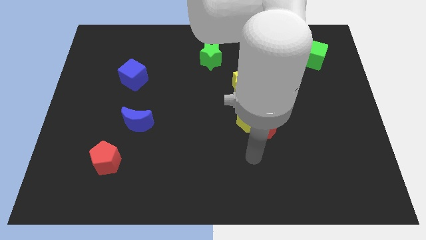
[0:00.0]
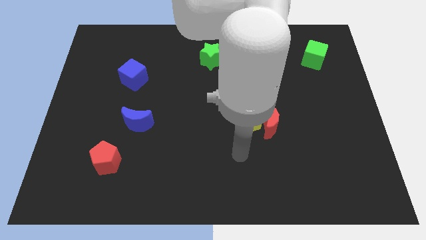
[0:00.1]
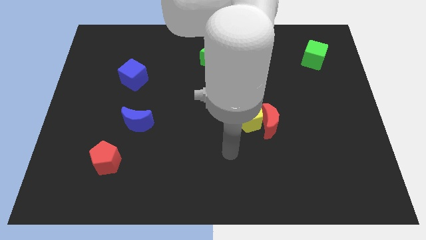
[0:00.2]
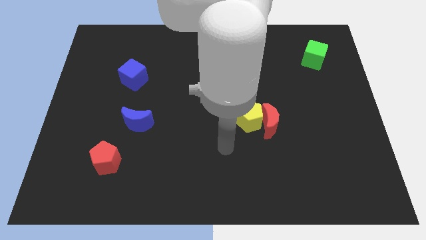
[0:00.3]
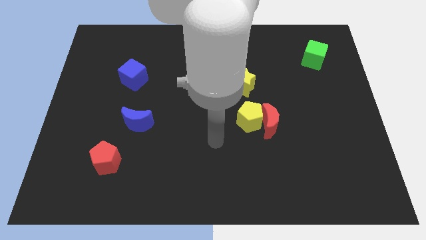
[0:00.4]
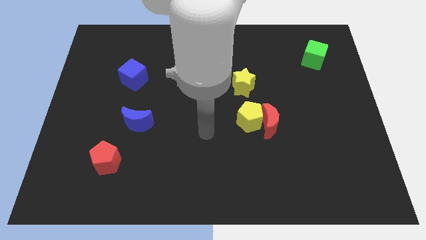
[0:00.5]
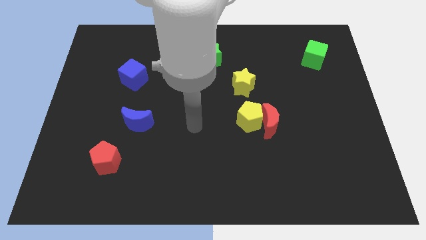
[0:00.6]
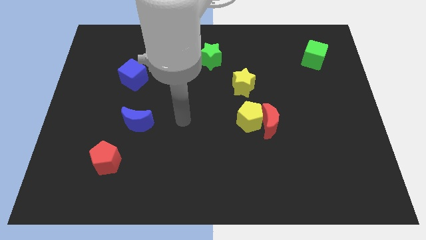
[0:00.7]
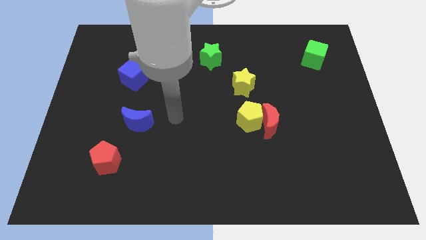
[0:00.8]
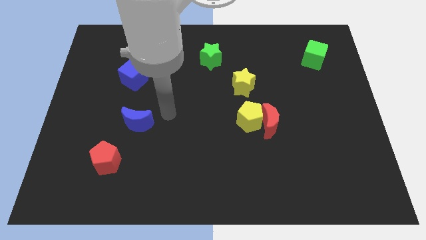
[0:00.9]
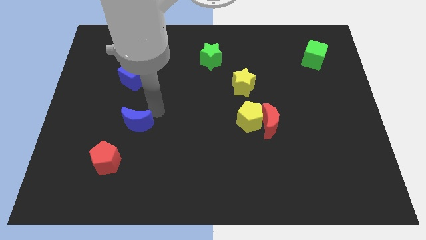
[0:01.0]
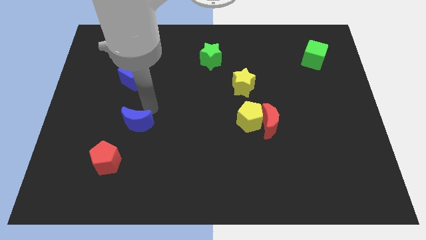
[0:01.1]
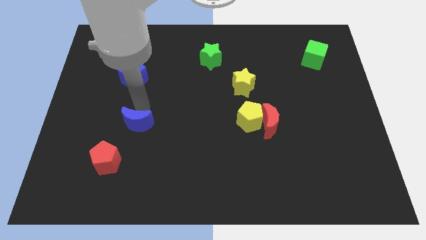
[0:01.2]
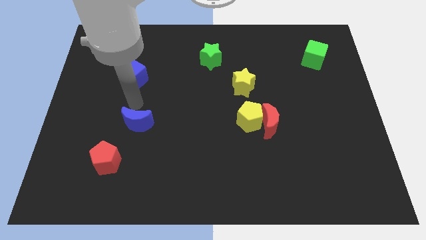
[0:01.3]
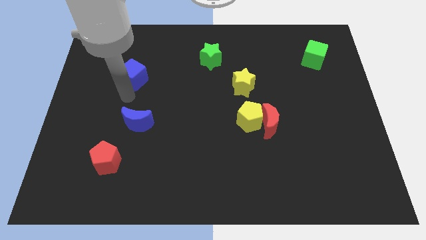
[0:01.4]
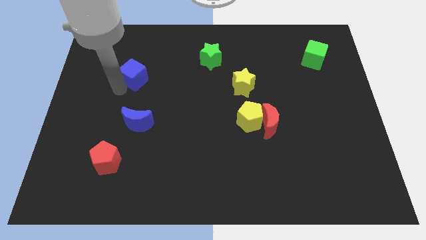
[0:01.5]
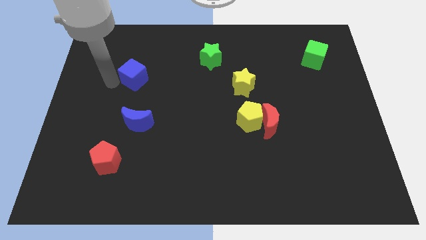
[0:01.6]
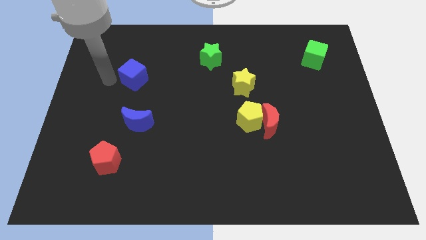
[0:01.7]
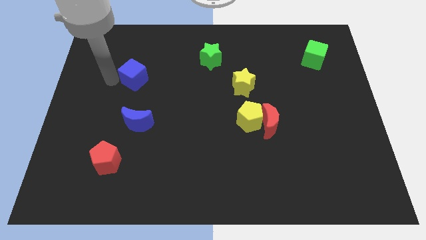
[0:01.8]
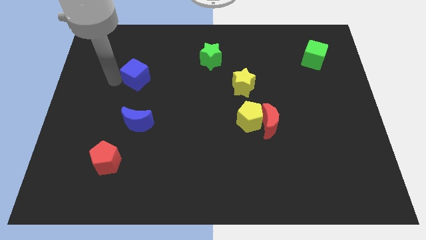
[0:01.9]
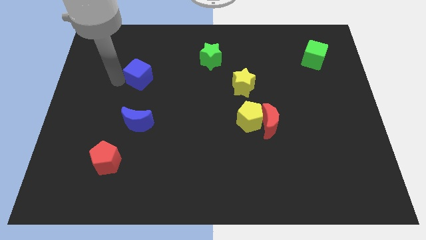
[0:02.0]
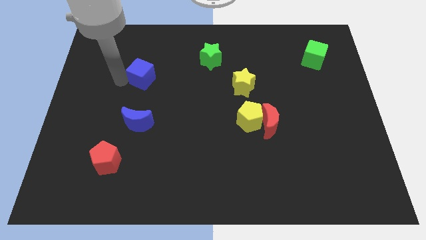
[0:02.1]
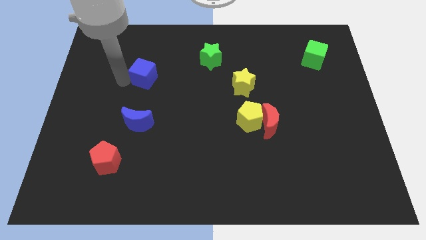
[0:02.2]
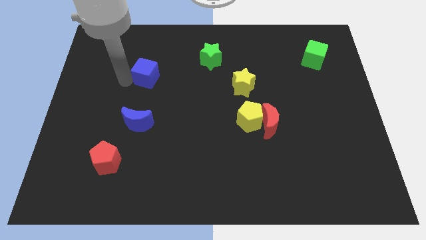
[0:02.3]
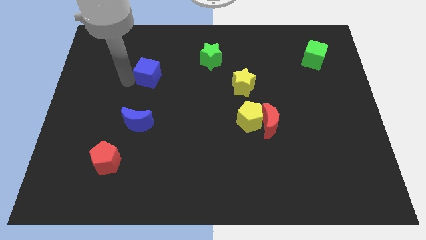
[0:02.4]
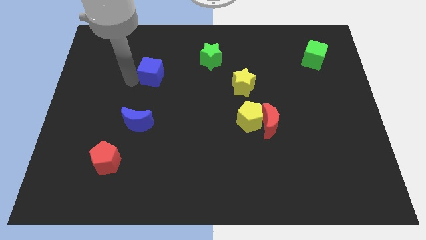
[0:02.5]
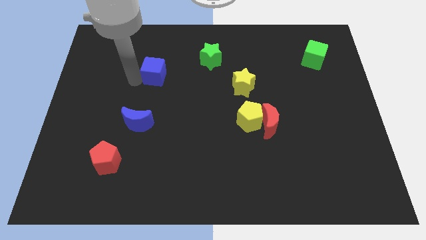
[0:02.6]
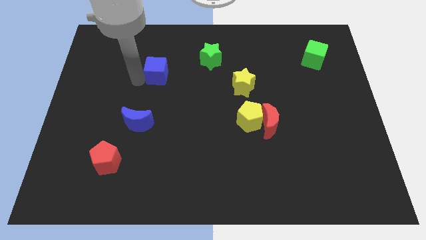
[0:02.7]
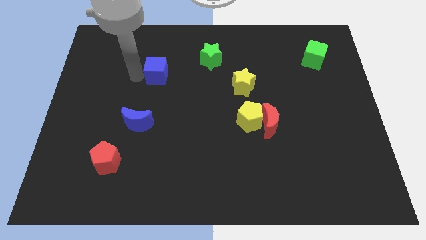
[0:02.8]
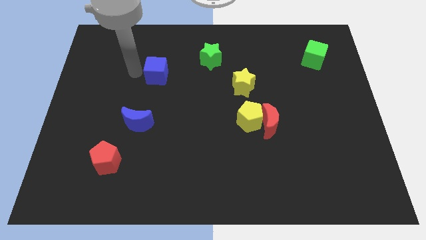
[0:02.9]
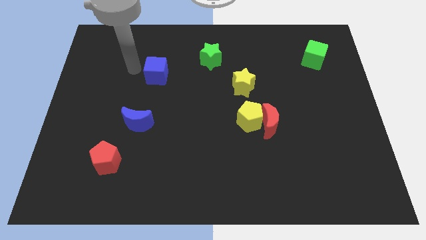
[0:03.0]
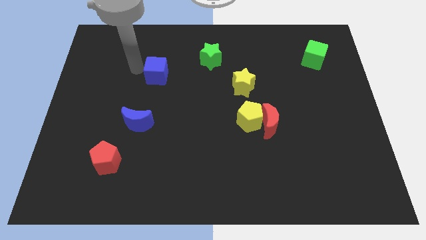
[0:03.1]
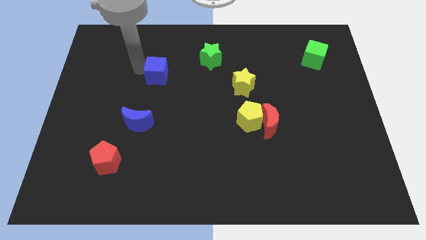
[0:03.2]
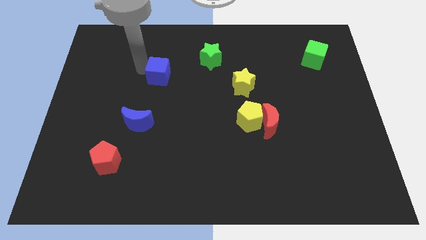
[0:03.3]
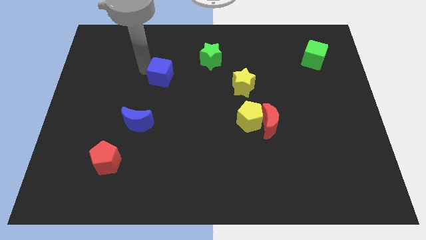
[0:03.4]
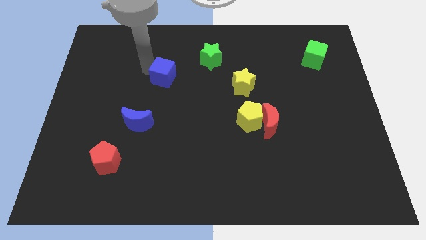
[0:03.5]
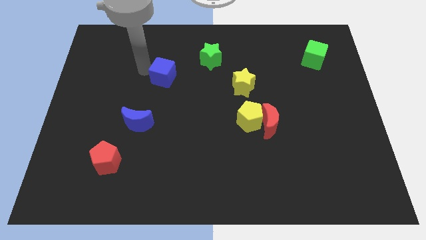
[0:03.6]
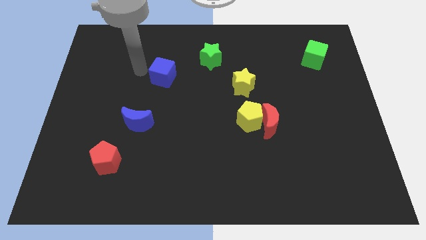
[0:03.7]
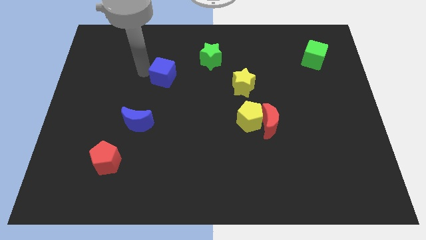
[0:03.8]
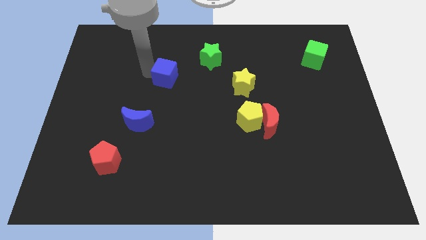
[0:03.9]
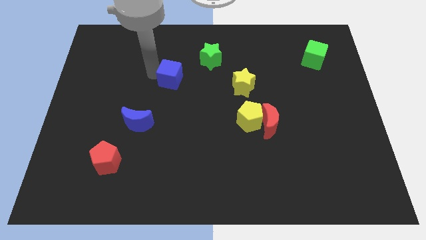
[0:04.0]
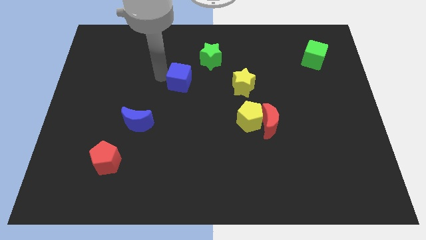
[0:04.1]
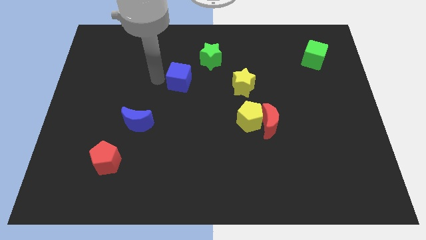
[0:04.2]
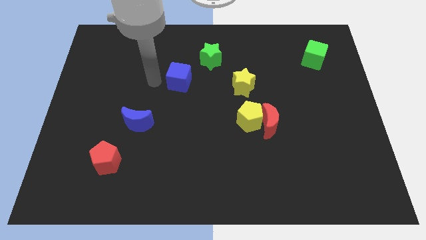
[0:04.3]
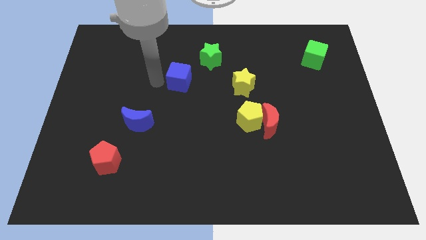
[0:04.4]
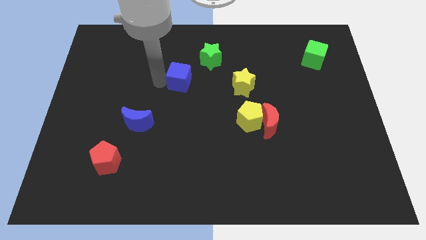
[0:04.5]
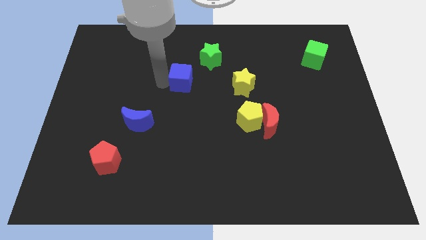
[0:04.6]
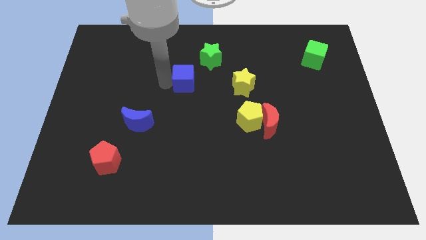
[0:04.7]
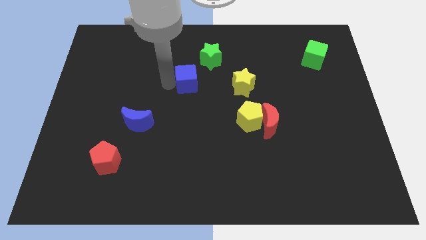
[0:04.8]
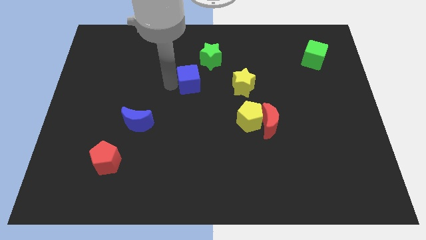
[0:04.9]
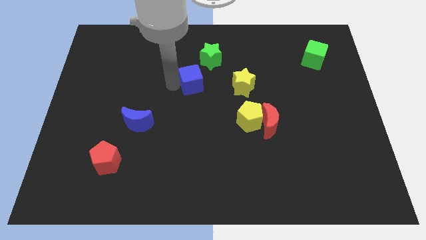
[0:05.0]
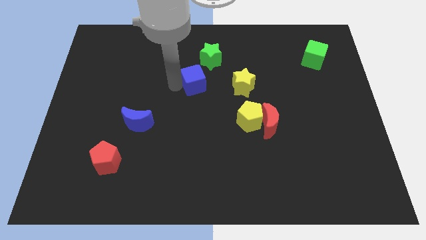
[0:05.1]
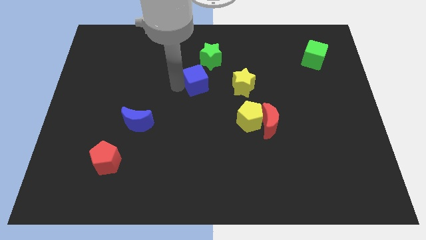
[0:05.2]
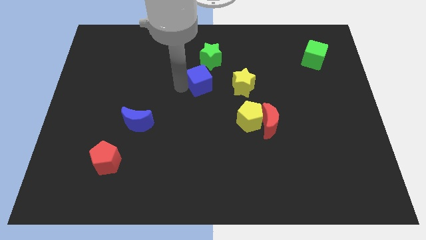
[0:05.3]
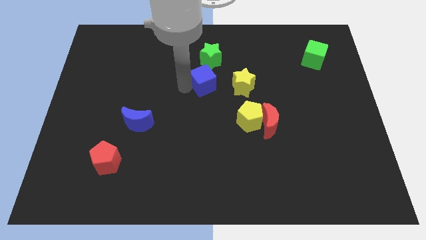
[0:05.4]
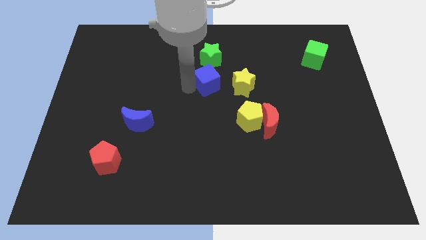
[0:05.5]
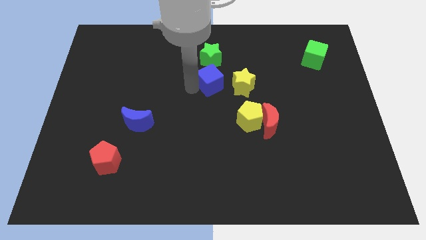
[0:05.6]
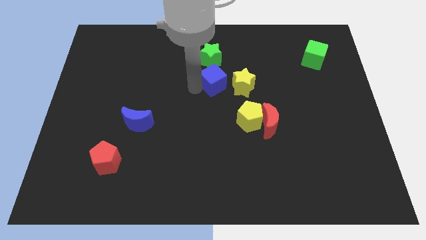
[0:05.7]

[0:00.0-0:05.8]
push the blue cube to the right

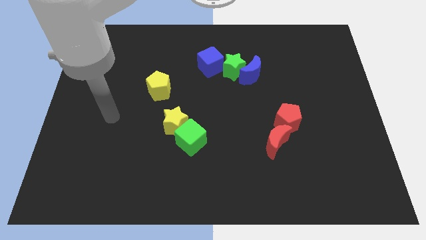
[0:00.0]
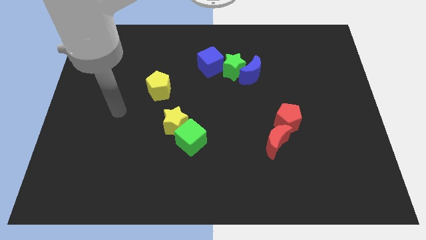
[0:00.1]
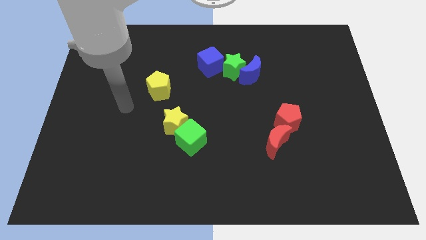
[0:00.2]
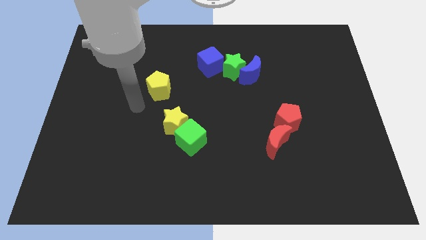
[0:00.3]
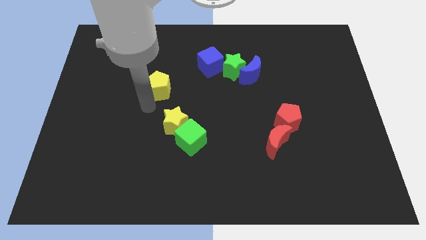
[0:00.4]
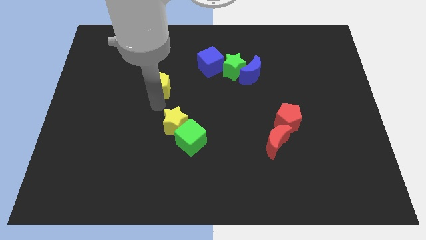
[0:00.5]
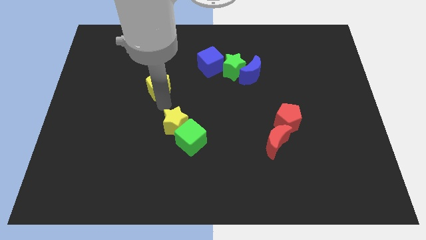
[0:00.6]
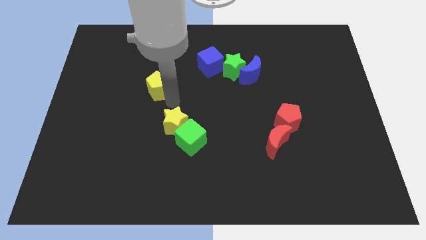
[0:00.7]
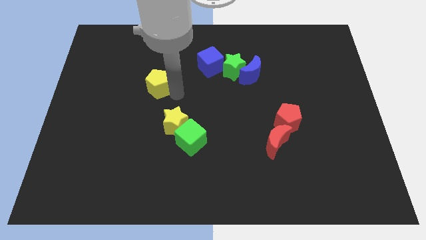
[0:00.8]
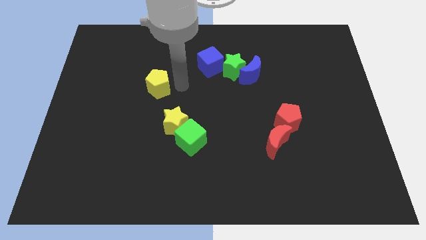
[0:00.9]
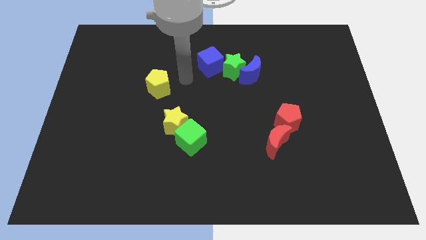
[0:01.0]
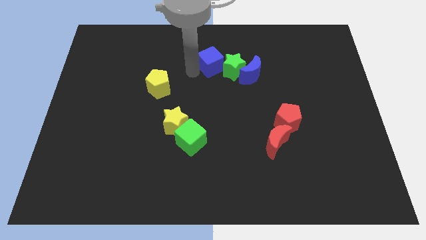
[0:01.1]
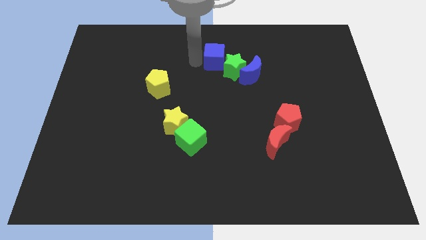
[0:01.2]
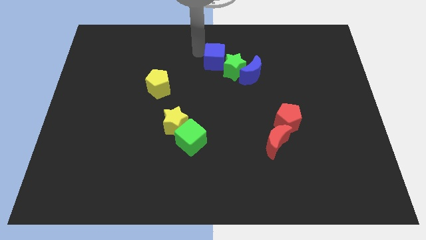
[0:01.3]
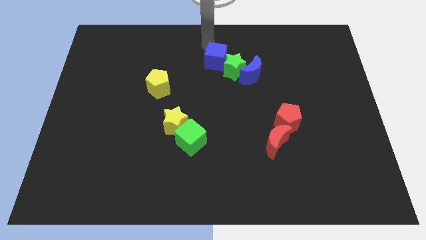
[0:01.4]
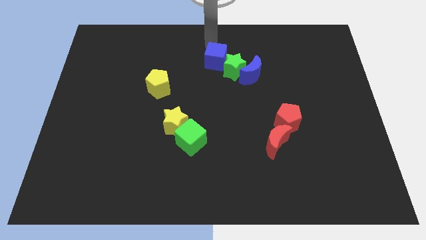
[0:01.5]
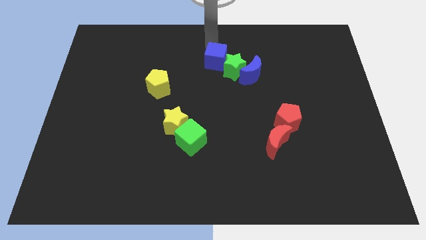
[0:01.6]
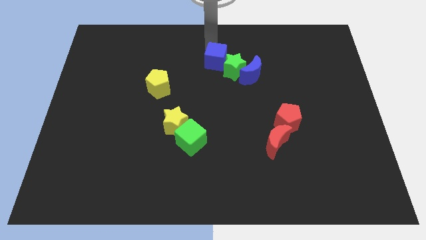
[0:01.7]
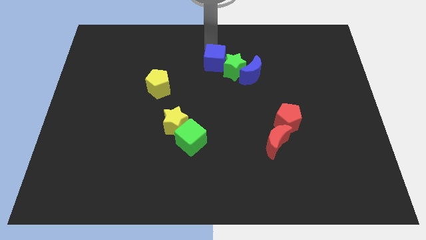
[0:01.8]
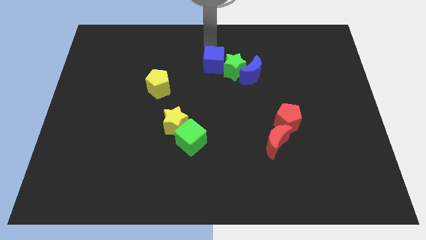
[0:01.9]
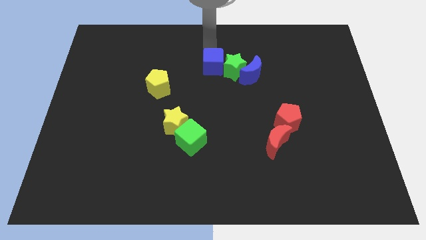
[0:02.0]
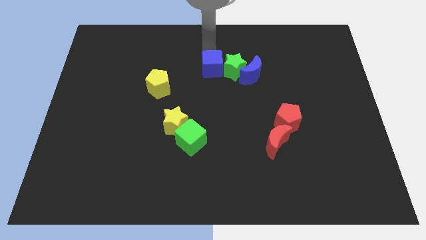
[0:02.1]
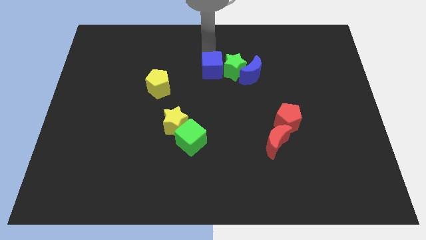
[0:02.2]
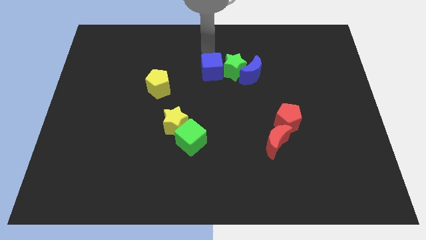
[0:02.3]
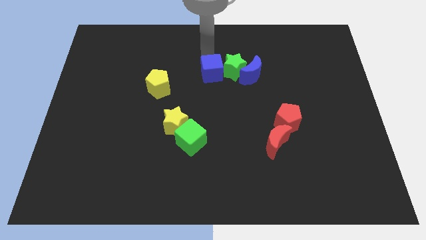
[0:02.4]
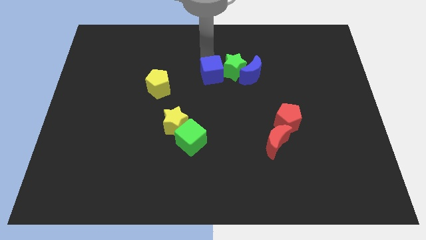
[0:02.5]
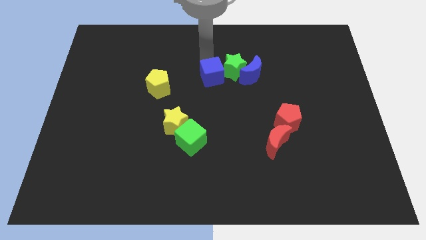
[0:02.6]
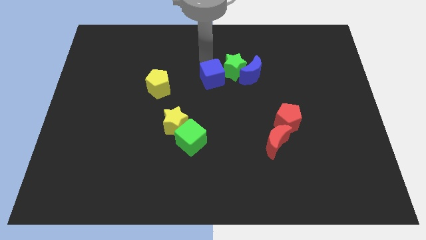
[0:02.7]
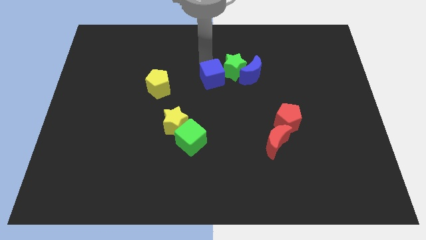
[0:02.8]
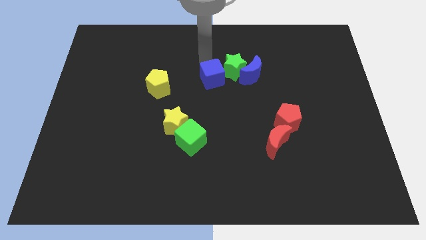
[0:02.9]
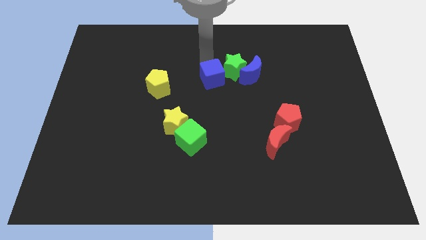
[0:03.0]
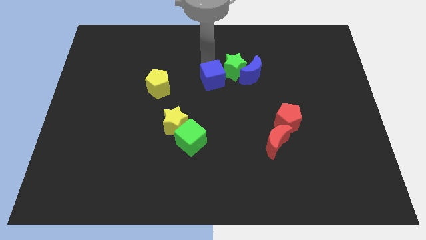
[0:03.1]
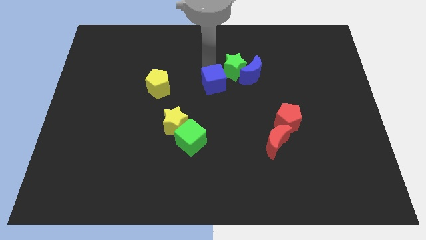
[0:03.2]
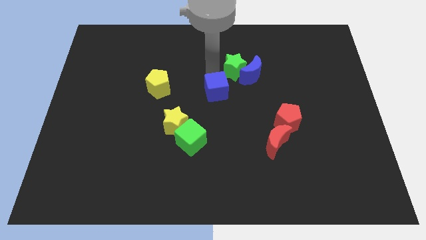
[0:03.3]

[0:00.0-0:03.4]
slide the blue cube somewhat down
